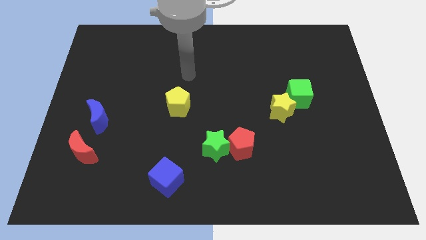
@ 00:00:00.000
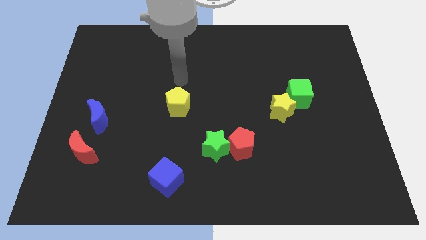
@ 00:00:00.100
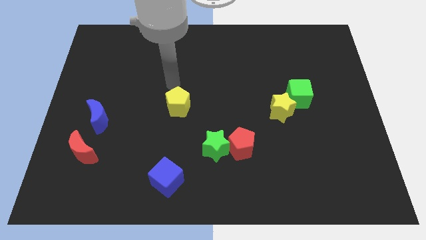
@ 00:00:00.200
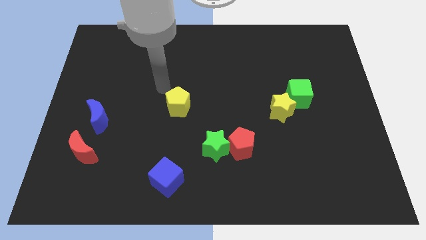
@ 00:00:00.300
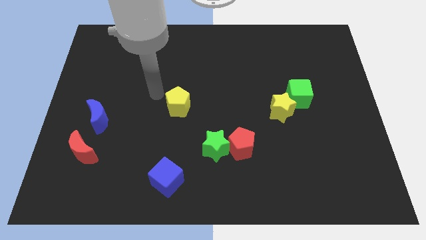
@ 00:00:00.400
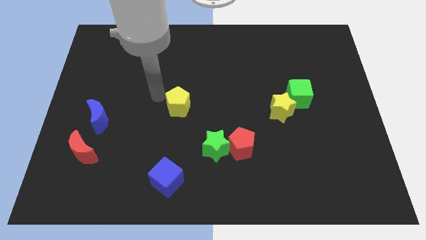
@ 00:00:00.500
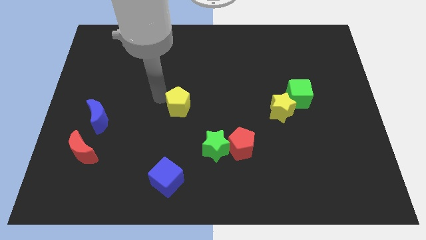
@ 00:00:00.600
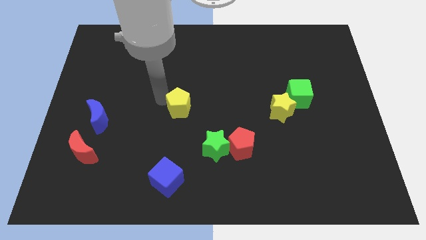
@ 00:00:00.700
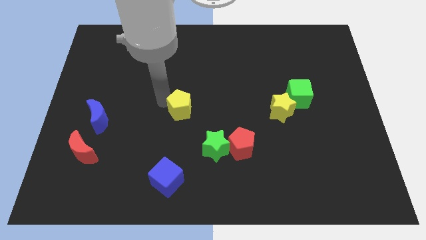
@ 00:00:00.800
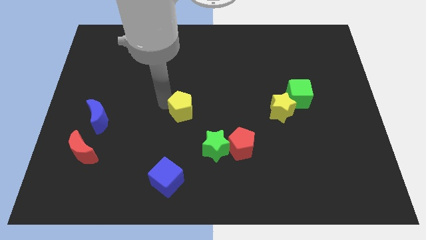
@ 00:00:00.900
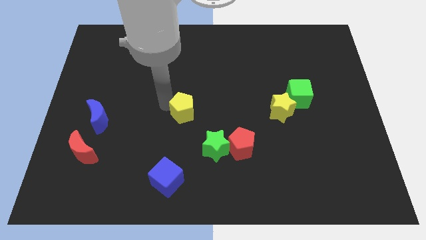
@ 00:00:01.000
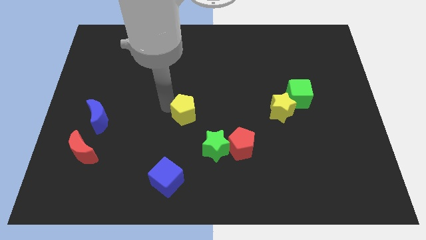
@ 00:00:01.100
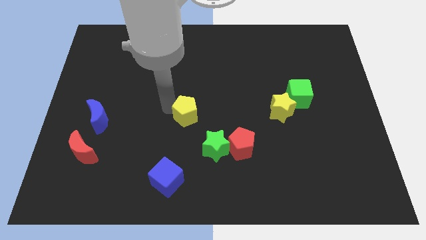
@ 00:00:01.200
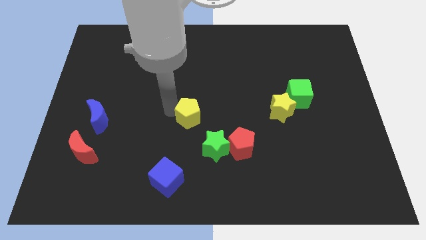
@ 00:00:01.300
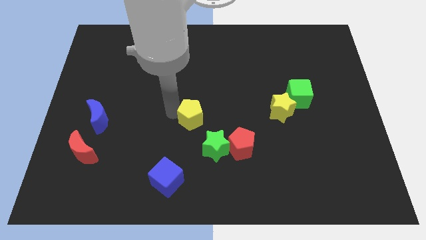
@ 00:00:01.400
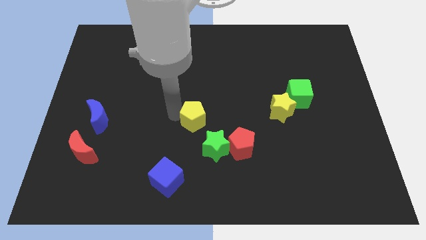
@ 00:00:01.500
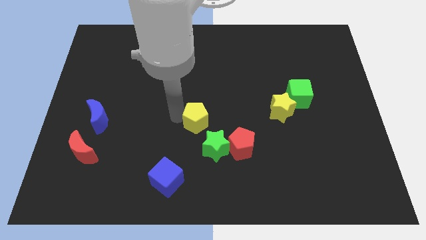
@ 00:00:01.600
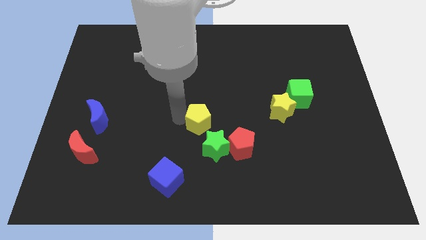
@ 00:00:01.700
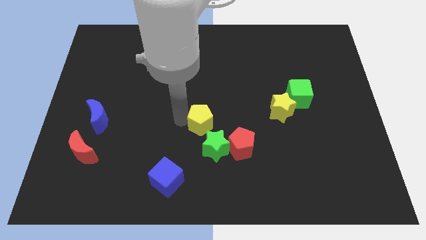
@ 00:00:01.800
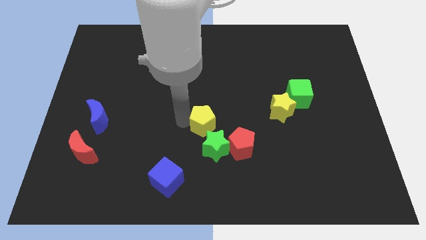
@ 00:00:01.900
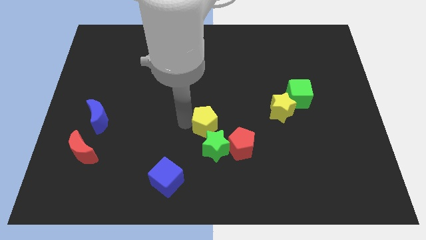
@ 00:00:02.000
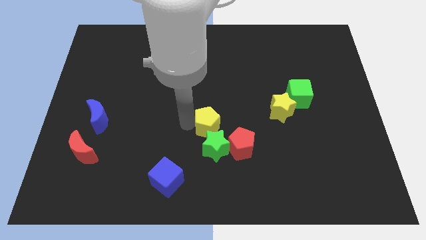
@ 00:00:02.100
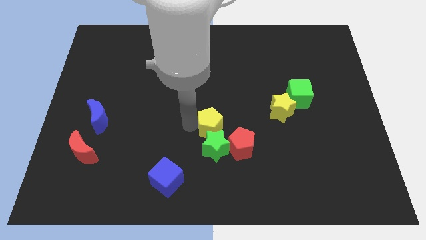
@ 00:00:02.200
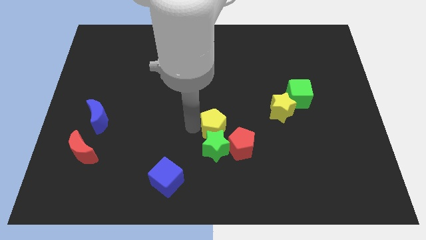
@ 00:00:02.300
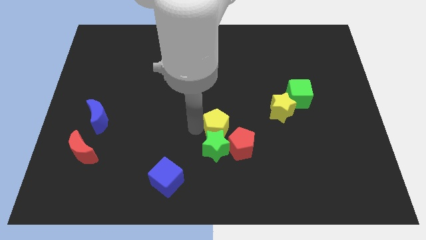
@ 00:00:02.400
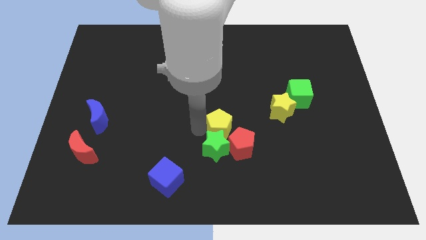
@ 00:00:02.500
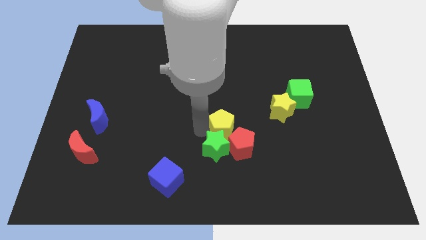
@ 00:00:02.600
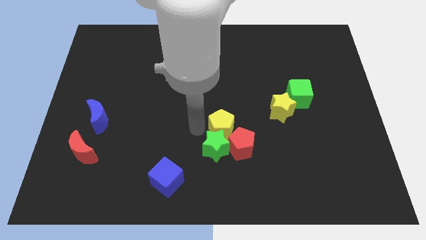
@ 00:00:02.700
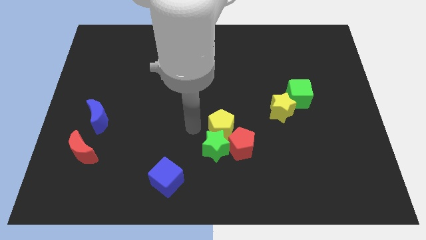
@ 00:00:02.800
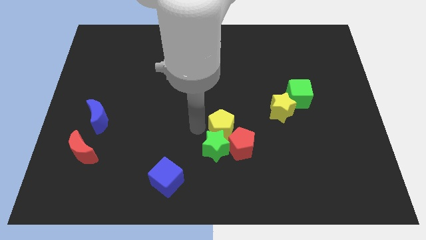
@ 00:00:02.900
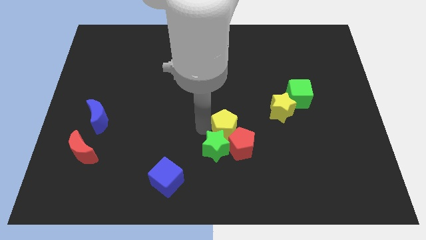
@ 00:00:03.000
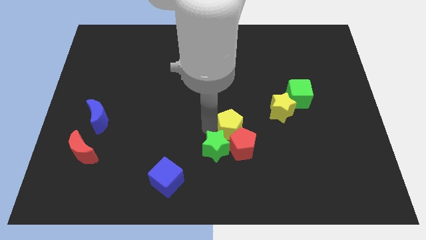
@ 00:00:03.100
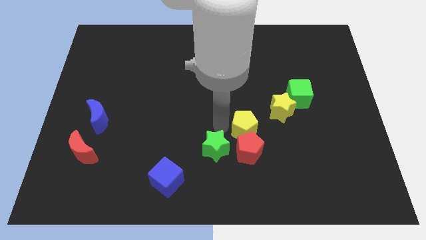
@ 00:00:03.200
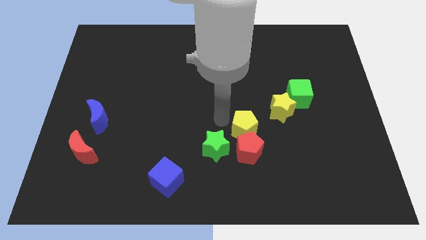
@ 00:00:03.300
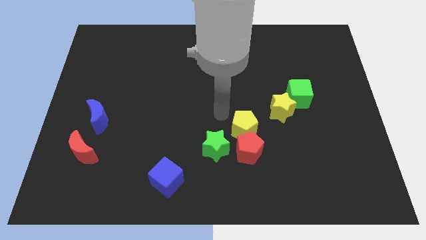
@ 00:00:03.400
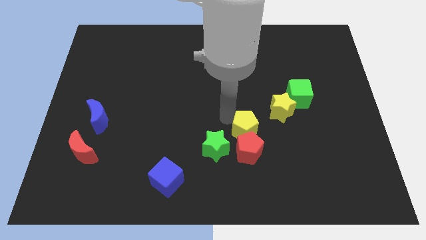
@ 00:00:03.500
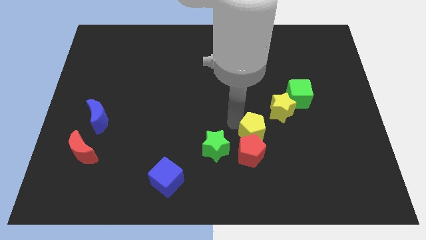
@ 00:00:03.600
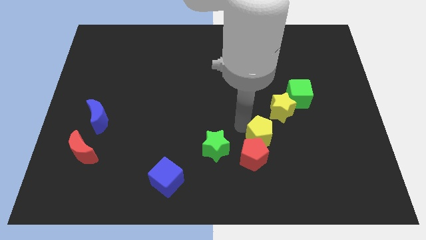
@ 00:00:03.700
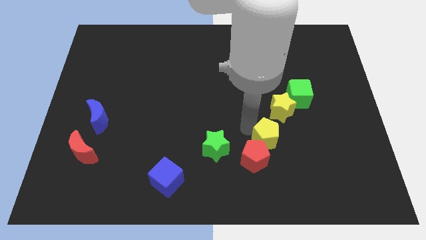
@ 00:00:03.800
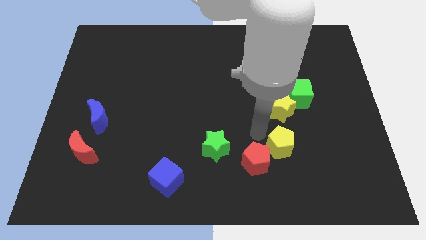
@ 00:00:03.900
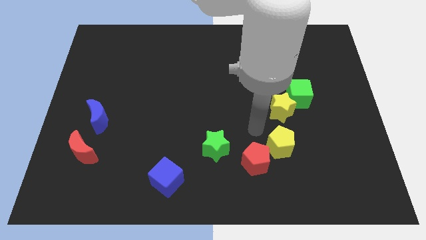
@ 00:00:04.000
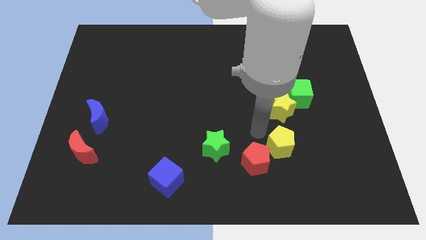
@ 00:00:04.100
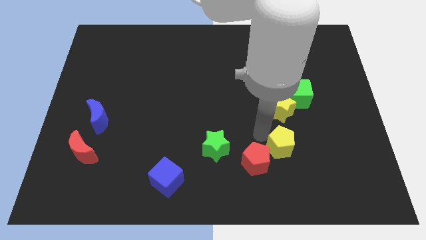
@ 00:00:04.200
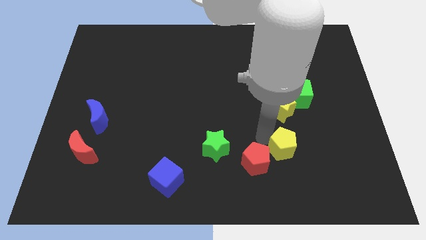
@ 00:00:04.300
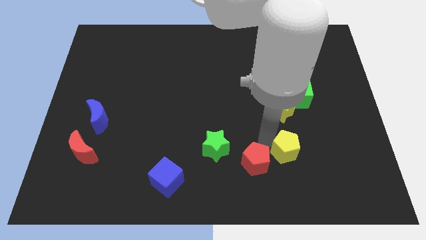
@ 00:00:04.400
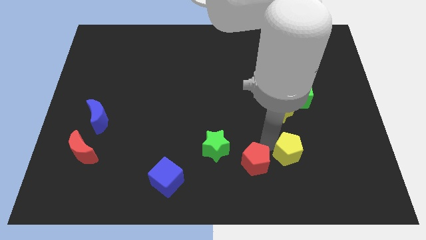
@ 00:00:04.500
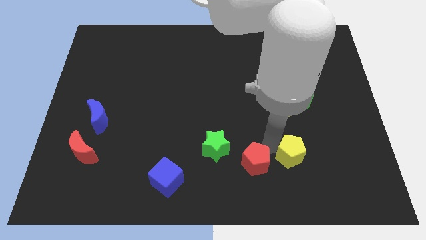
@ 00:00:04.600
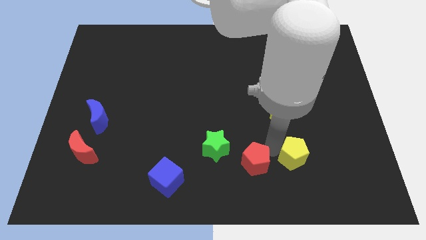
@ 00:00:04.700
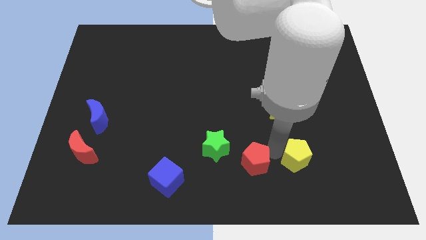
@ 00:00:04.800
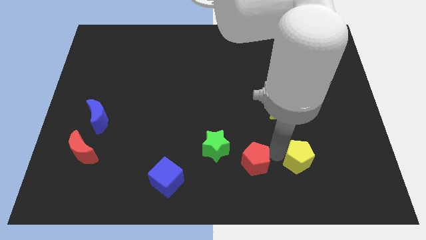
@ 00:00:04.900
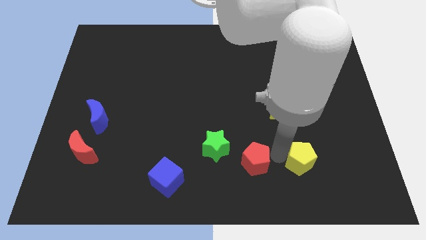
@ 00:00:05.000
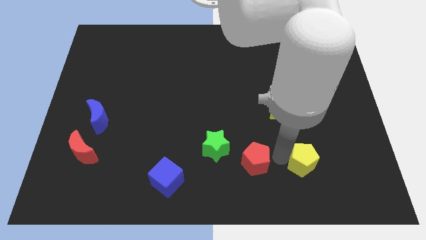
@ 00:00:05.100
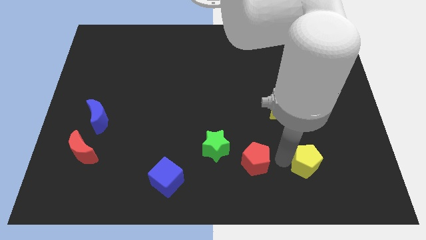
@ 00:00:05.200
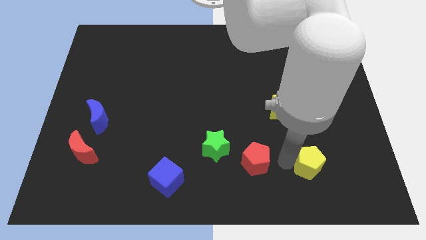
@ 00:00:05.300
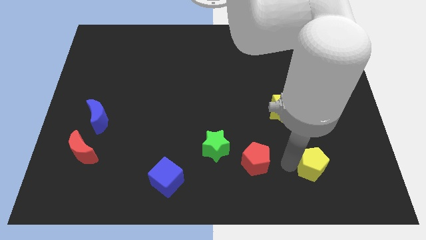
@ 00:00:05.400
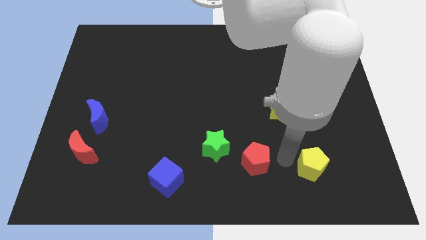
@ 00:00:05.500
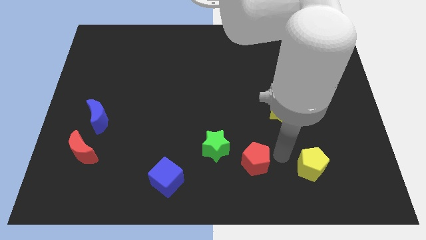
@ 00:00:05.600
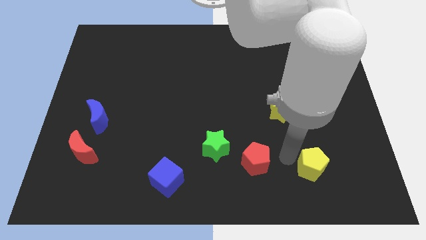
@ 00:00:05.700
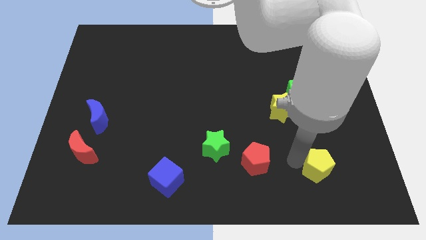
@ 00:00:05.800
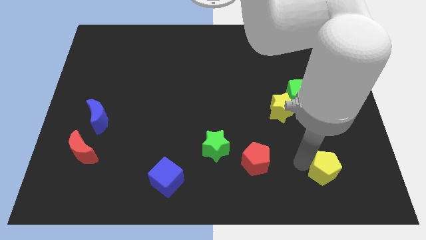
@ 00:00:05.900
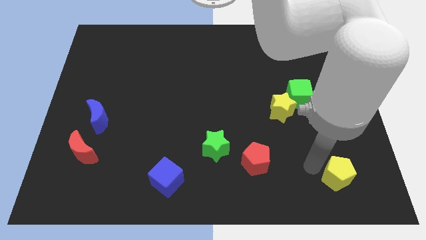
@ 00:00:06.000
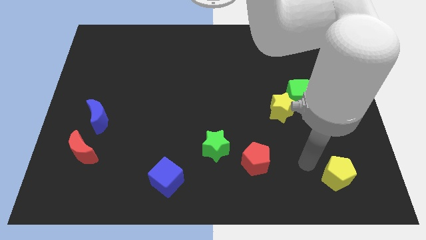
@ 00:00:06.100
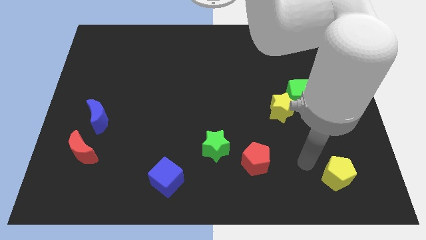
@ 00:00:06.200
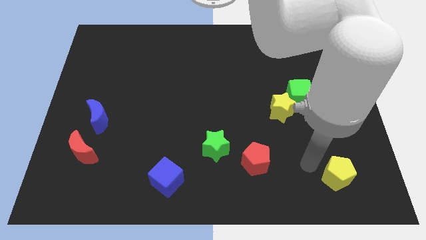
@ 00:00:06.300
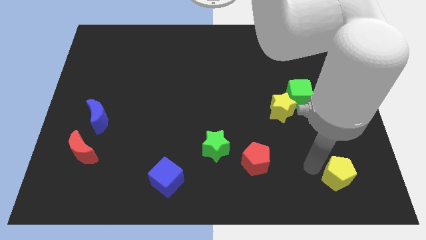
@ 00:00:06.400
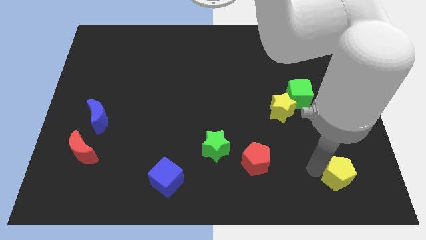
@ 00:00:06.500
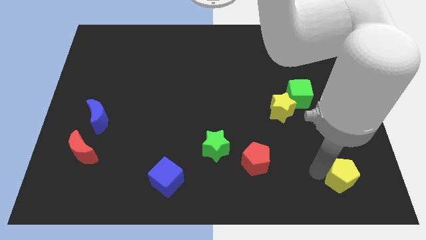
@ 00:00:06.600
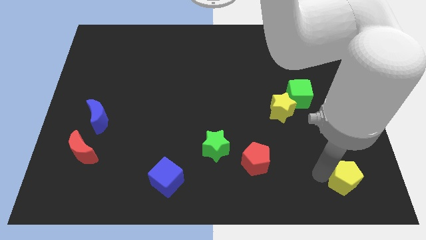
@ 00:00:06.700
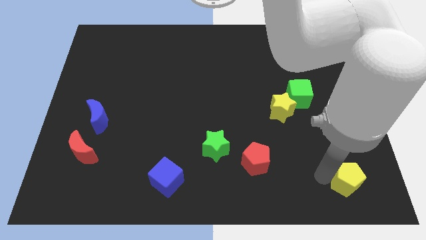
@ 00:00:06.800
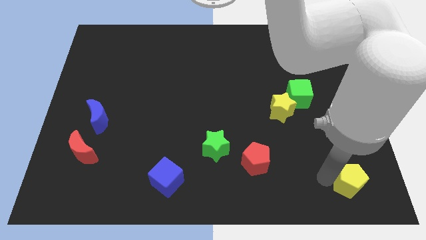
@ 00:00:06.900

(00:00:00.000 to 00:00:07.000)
push the yellow pentagon to the bottom right of the board

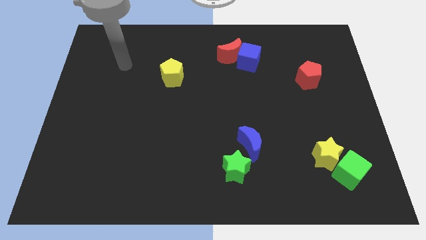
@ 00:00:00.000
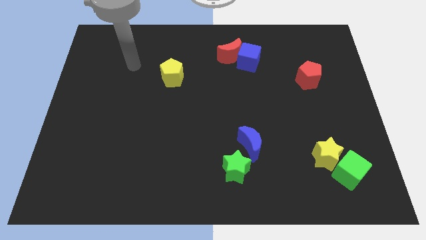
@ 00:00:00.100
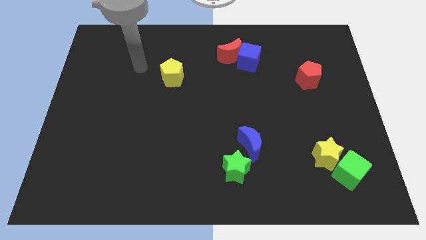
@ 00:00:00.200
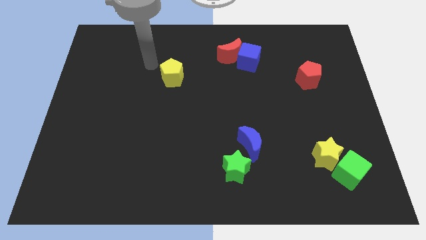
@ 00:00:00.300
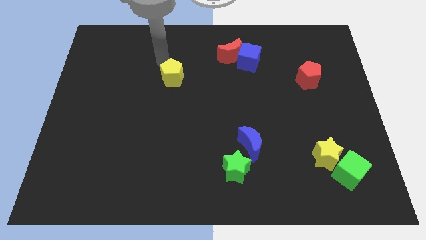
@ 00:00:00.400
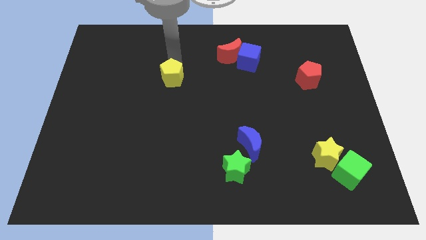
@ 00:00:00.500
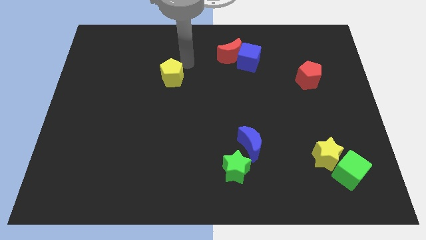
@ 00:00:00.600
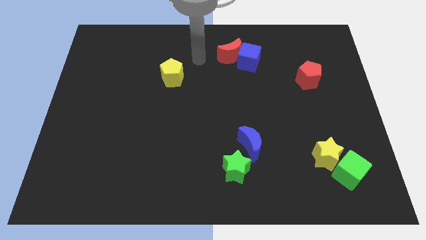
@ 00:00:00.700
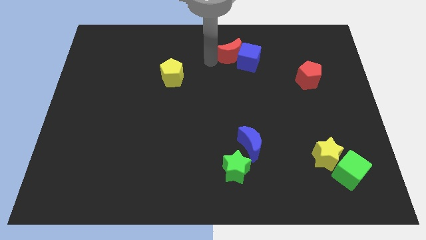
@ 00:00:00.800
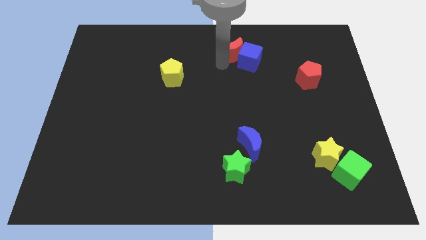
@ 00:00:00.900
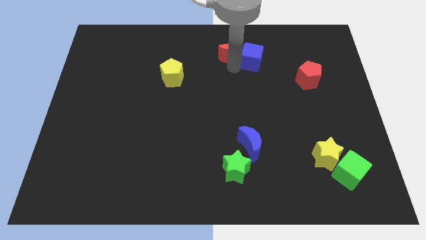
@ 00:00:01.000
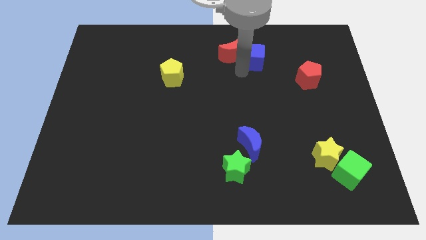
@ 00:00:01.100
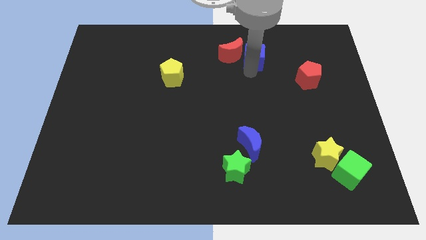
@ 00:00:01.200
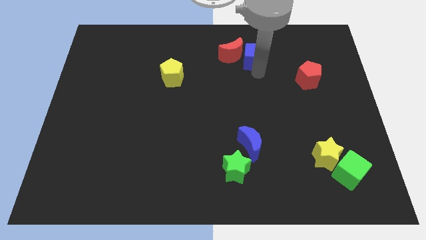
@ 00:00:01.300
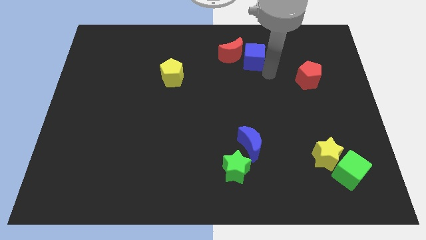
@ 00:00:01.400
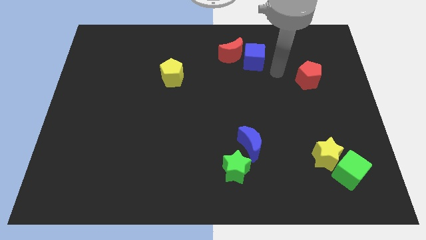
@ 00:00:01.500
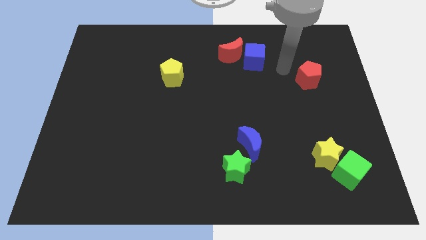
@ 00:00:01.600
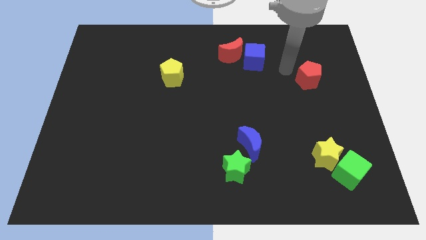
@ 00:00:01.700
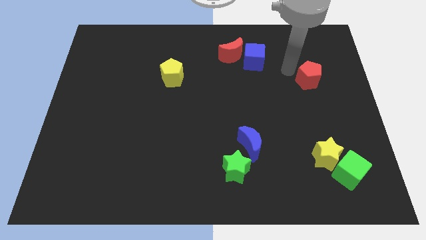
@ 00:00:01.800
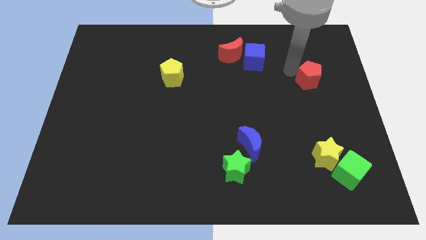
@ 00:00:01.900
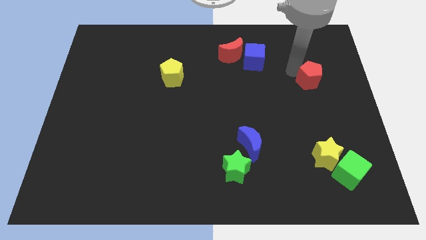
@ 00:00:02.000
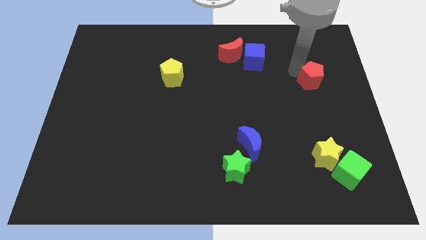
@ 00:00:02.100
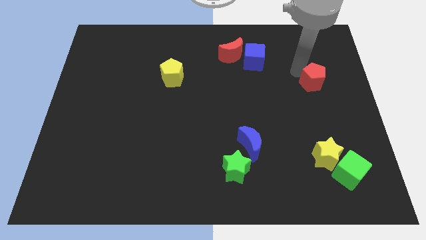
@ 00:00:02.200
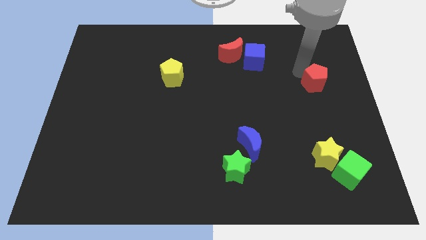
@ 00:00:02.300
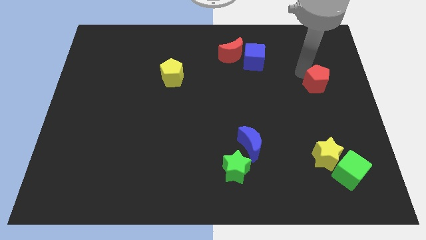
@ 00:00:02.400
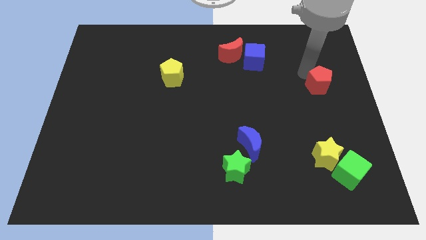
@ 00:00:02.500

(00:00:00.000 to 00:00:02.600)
push the red pentagon to the right side
